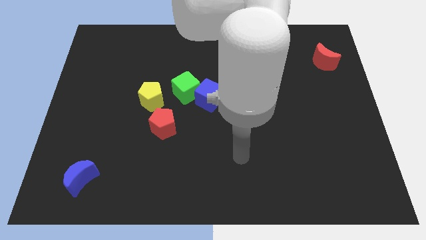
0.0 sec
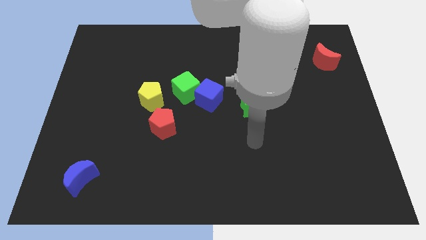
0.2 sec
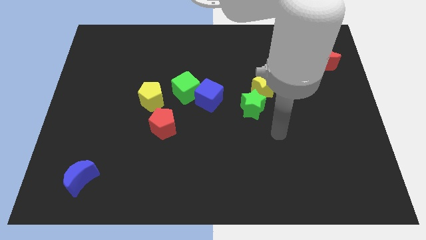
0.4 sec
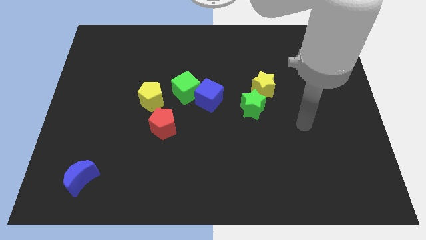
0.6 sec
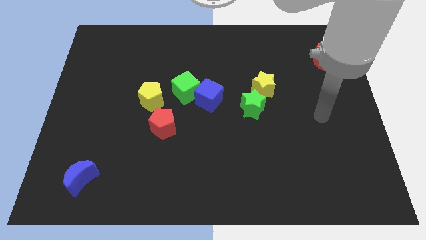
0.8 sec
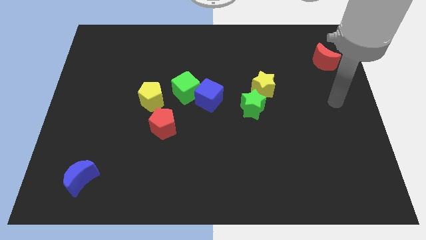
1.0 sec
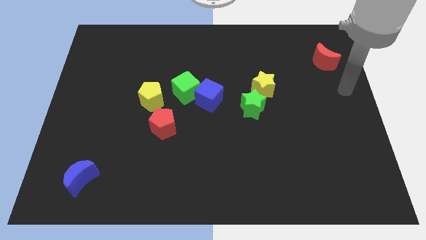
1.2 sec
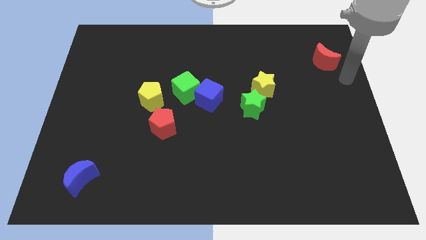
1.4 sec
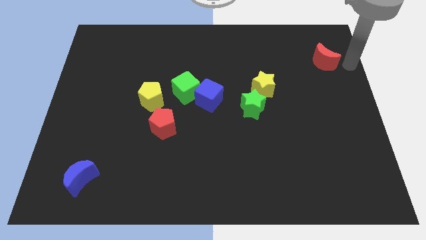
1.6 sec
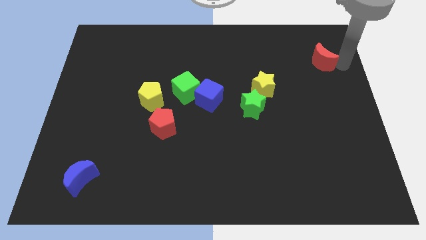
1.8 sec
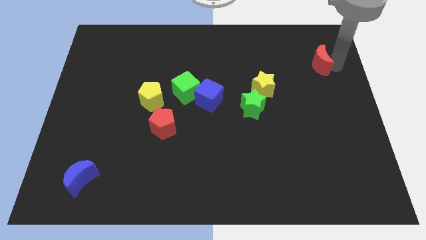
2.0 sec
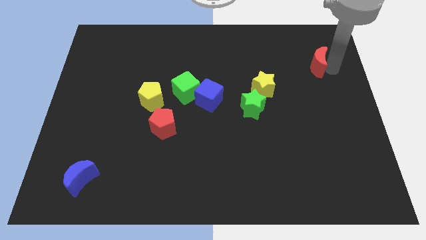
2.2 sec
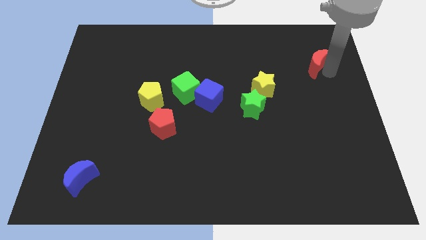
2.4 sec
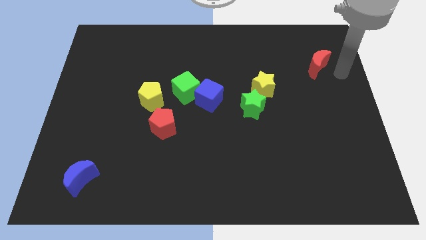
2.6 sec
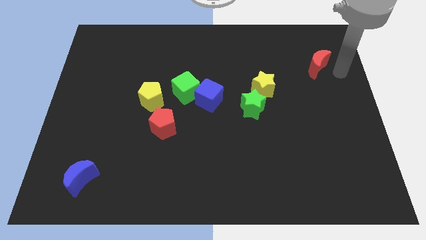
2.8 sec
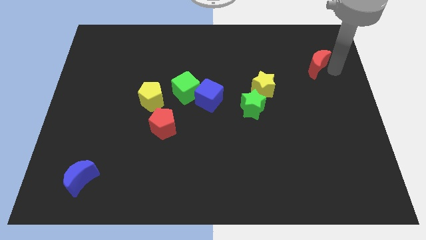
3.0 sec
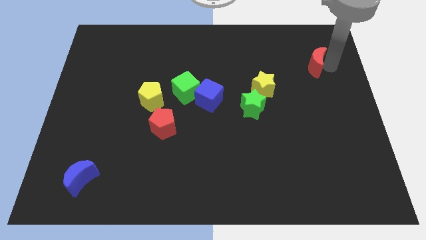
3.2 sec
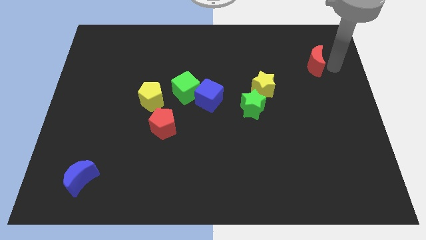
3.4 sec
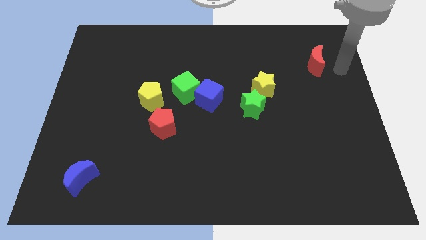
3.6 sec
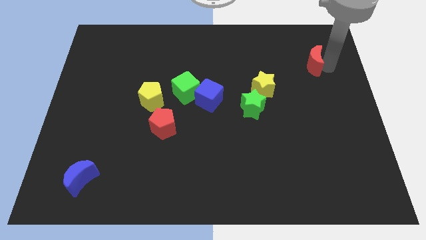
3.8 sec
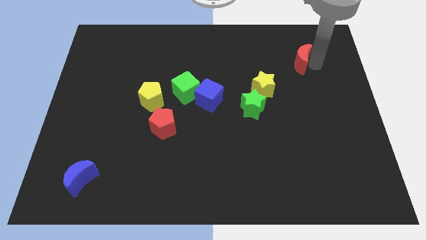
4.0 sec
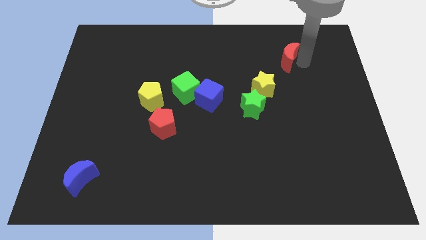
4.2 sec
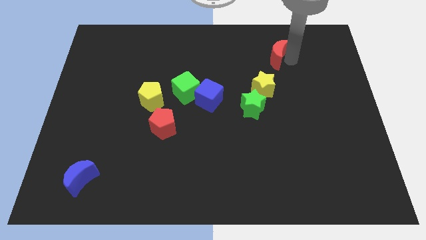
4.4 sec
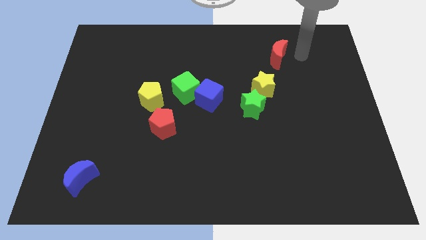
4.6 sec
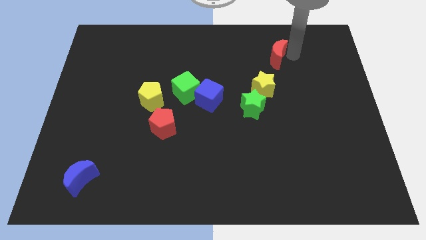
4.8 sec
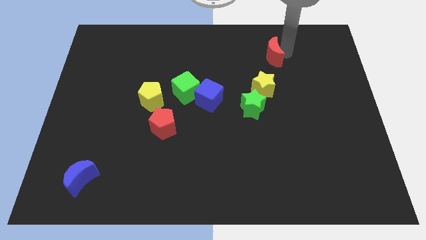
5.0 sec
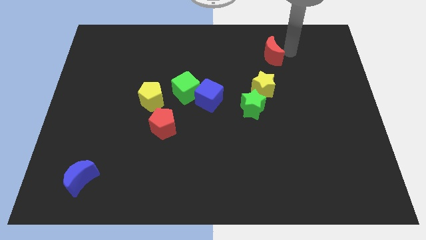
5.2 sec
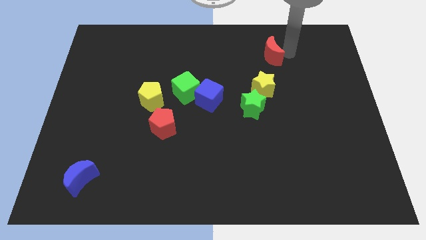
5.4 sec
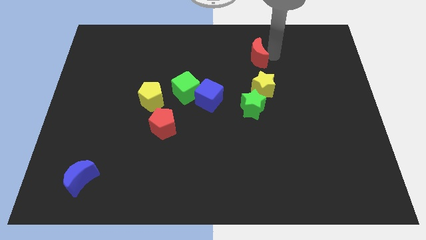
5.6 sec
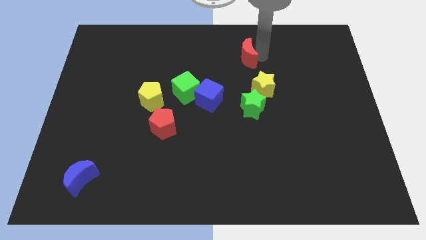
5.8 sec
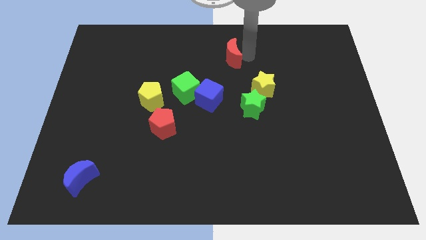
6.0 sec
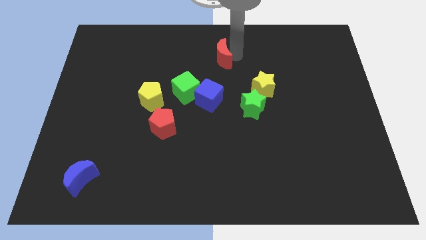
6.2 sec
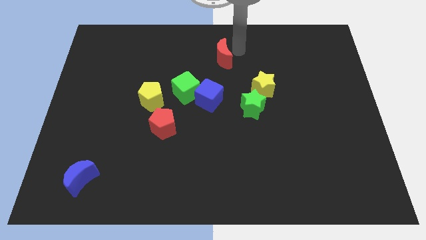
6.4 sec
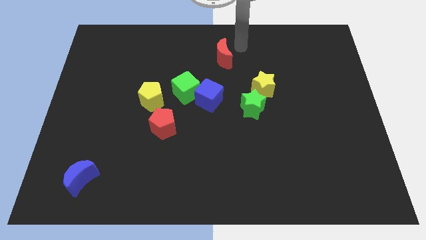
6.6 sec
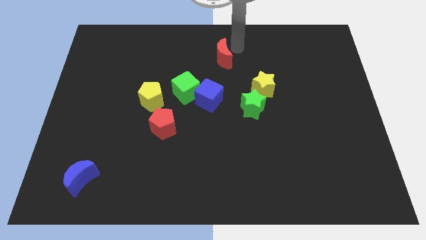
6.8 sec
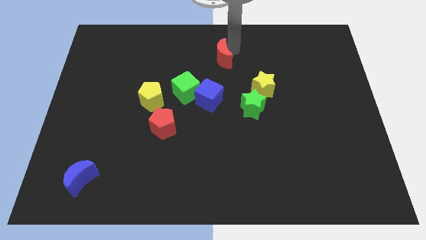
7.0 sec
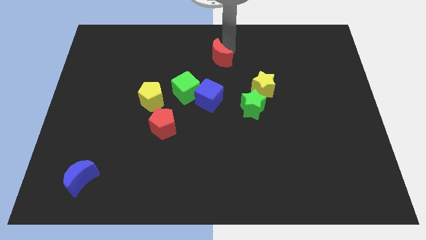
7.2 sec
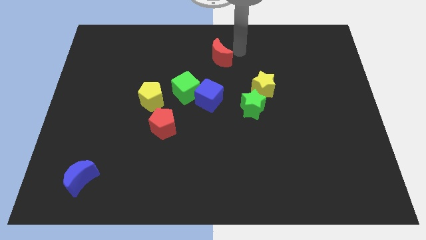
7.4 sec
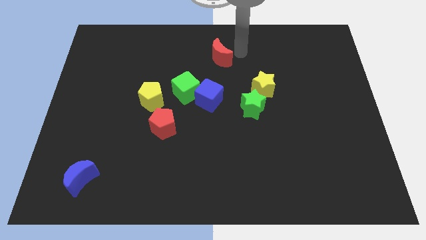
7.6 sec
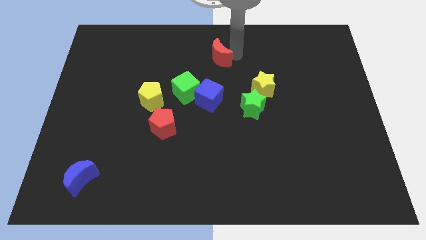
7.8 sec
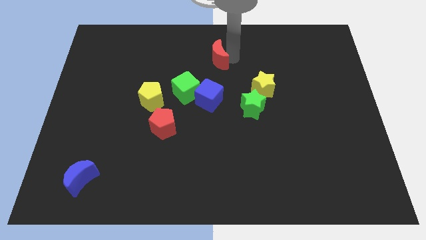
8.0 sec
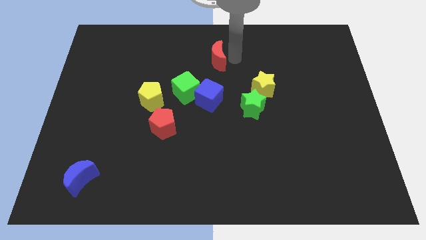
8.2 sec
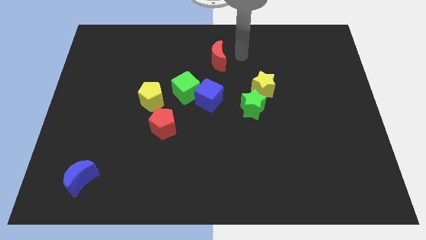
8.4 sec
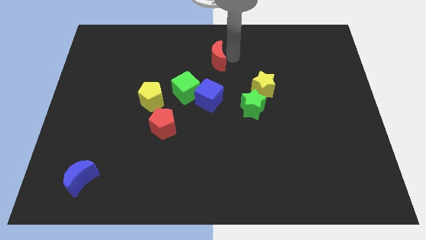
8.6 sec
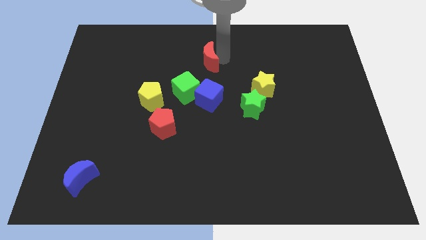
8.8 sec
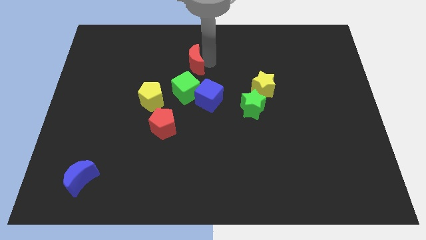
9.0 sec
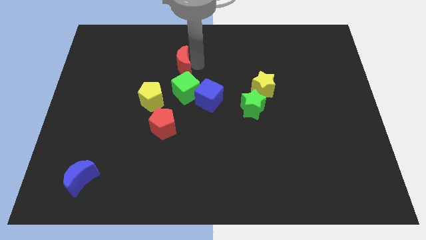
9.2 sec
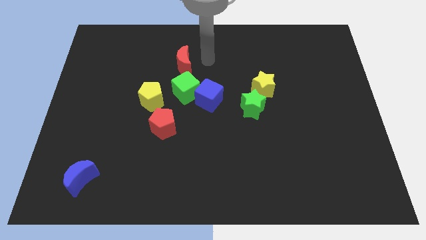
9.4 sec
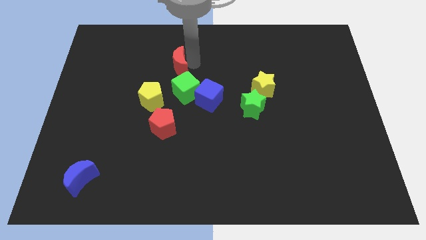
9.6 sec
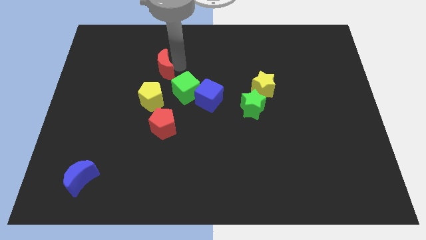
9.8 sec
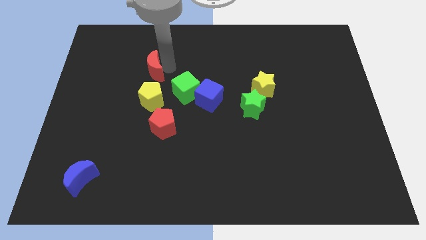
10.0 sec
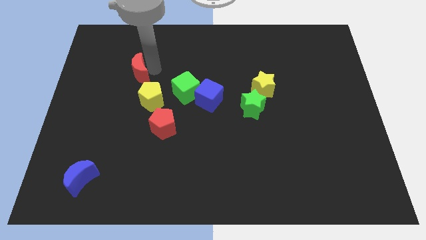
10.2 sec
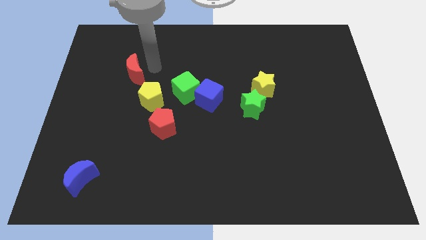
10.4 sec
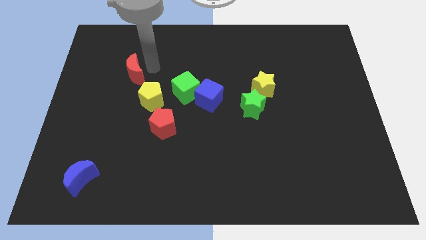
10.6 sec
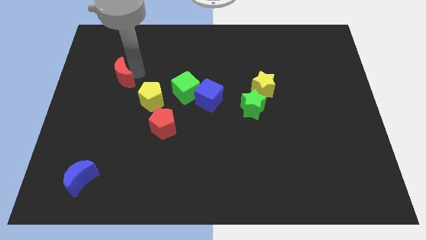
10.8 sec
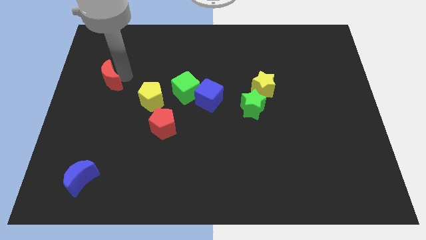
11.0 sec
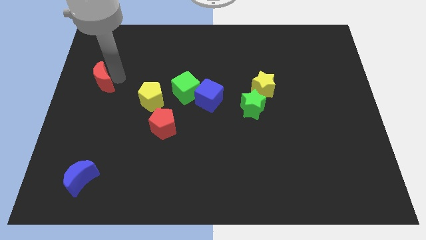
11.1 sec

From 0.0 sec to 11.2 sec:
push the red moon to the left side of the board

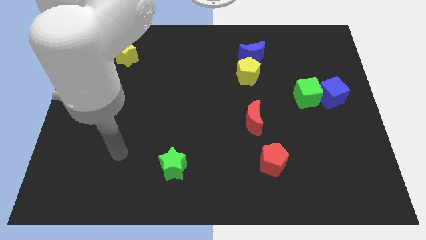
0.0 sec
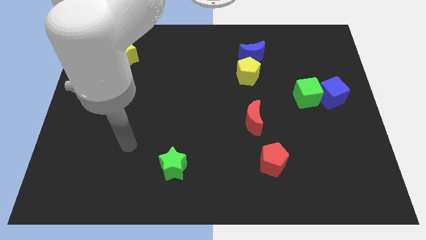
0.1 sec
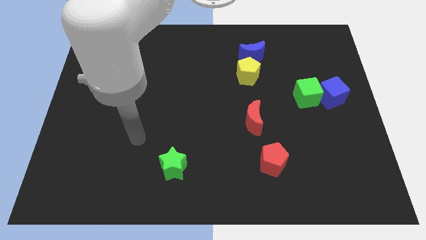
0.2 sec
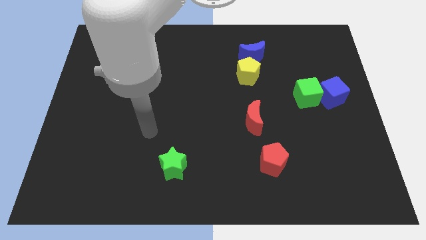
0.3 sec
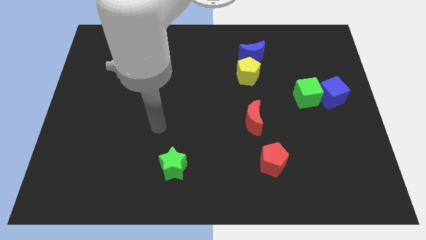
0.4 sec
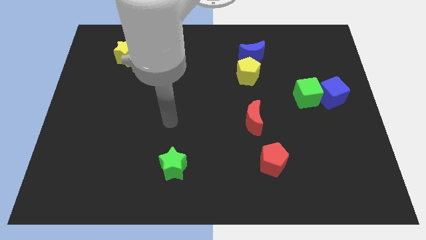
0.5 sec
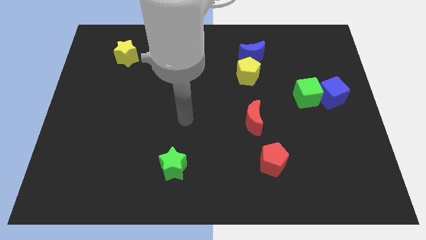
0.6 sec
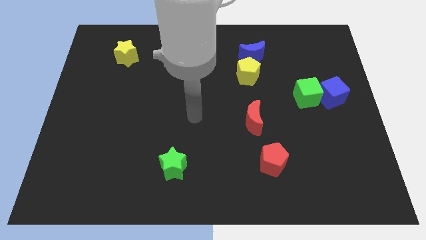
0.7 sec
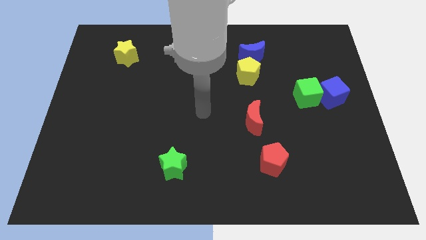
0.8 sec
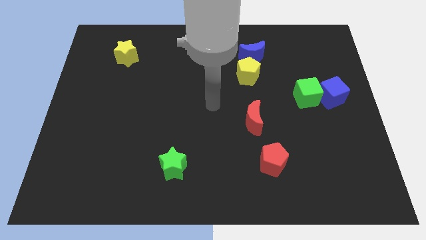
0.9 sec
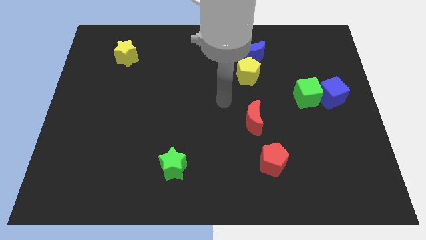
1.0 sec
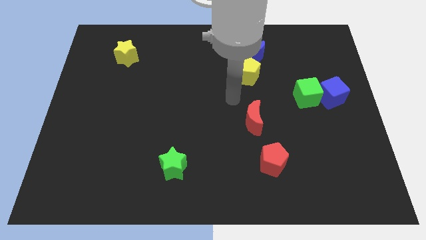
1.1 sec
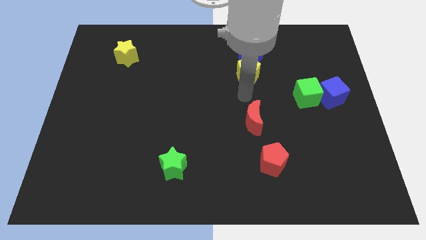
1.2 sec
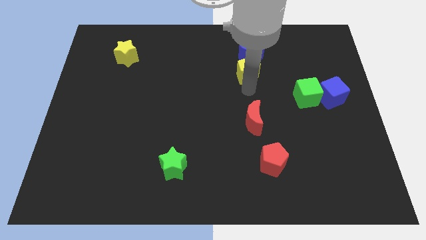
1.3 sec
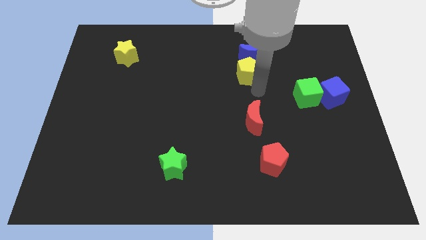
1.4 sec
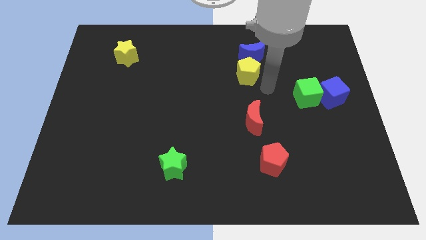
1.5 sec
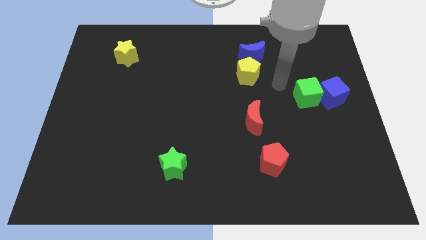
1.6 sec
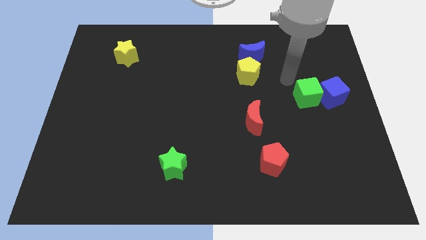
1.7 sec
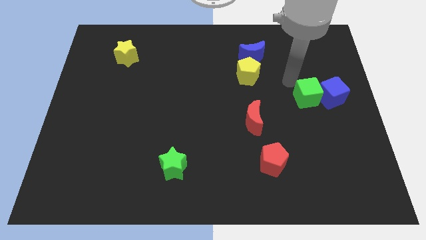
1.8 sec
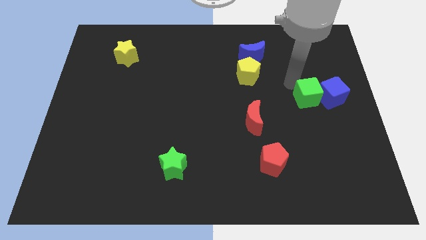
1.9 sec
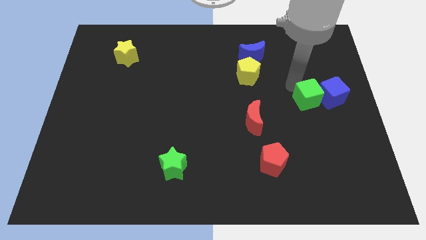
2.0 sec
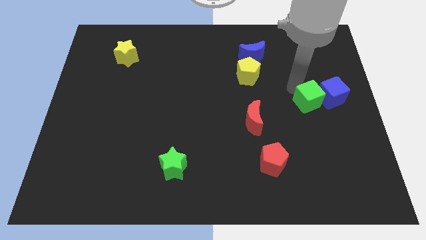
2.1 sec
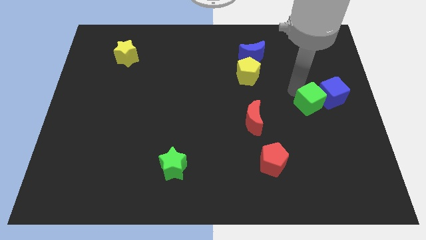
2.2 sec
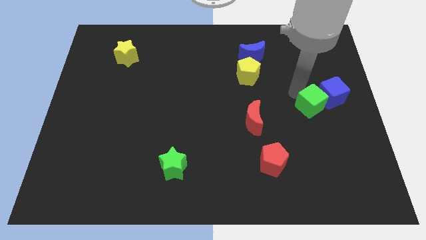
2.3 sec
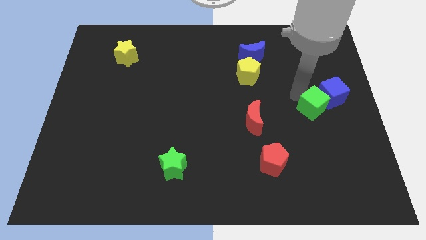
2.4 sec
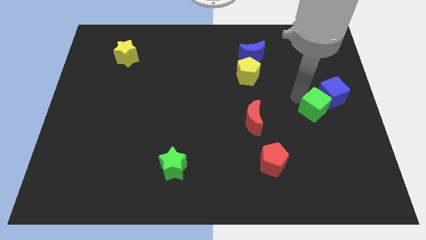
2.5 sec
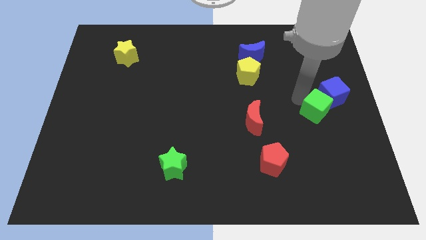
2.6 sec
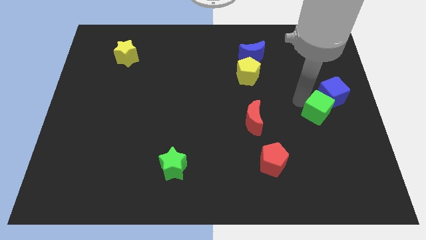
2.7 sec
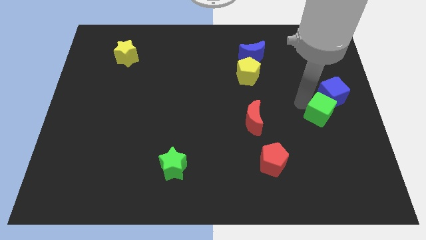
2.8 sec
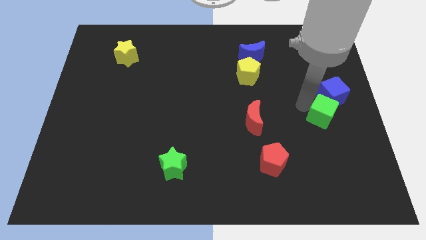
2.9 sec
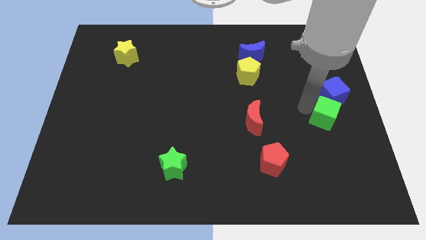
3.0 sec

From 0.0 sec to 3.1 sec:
push the green cube to the right side
